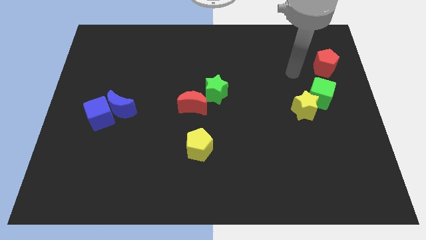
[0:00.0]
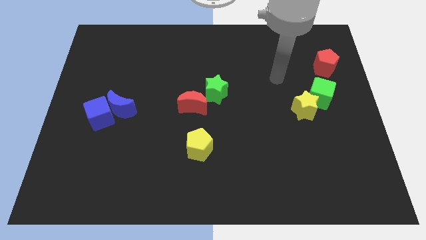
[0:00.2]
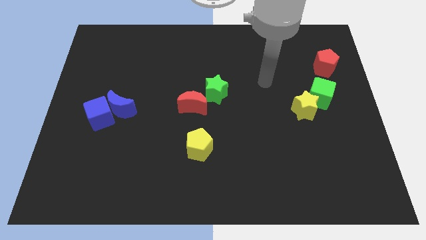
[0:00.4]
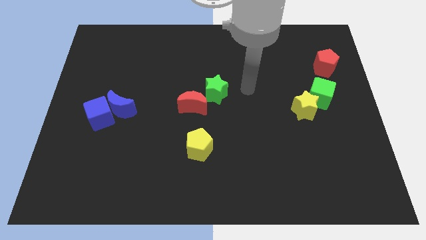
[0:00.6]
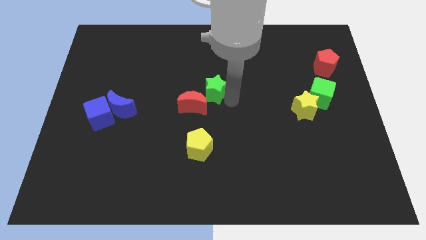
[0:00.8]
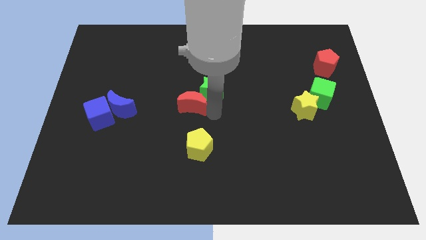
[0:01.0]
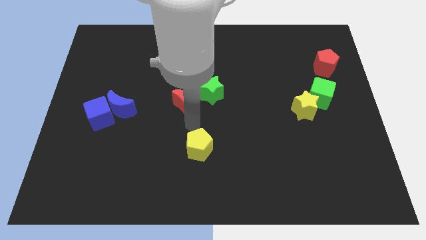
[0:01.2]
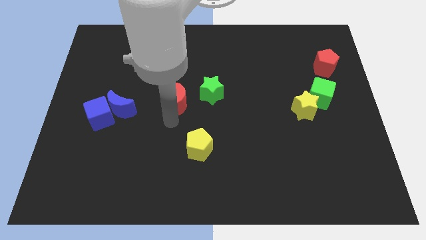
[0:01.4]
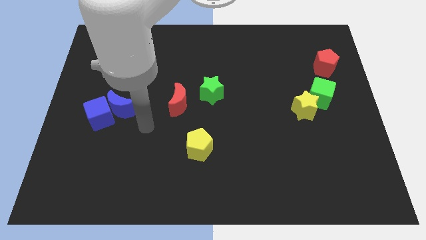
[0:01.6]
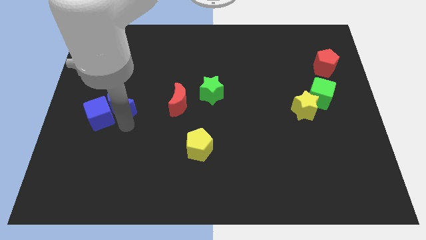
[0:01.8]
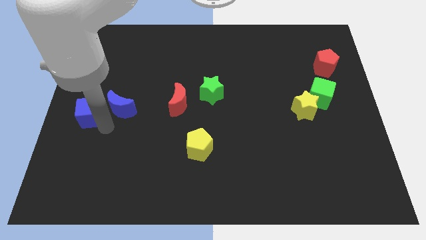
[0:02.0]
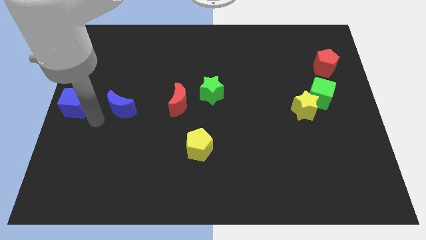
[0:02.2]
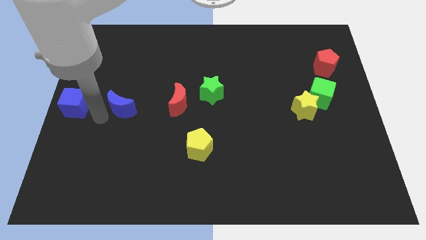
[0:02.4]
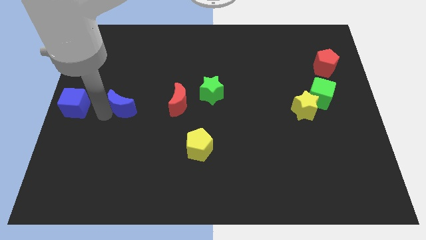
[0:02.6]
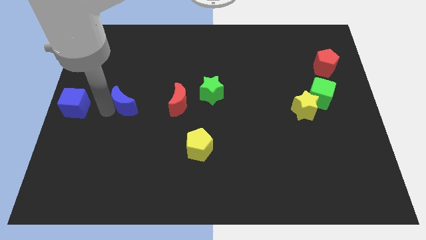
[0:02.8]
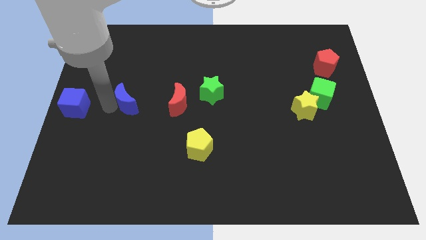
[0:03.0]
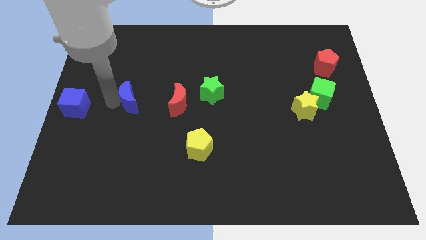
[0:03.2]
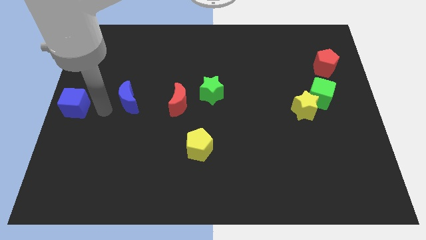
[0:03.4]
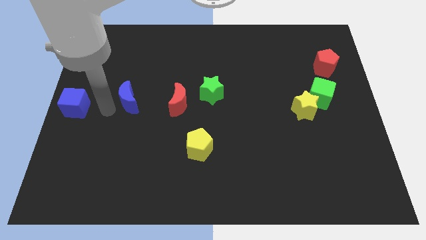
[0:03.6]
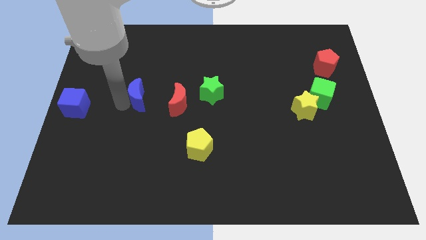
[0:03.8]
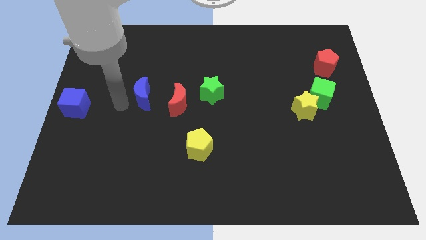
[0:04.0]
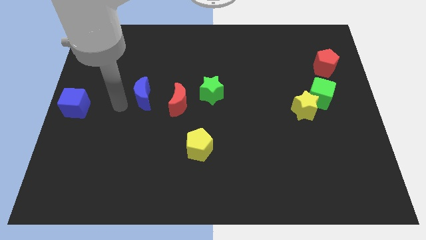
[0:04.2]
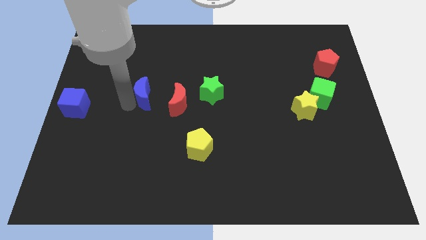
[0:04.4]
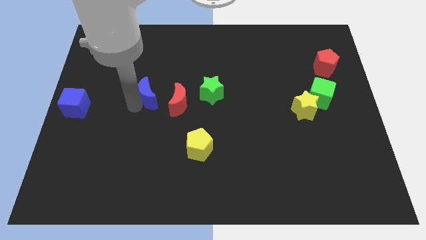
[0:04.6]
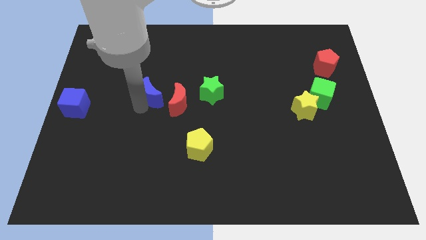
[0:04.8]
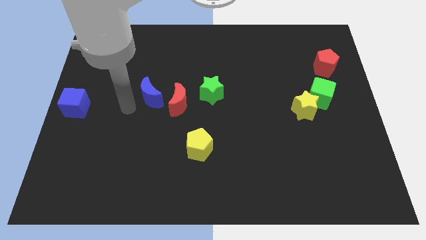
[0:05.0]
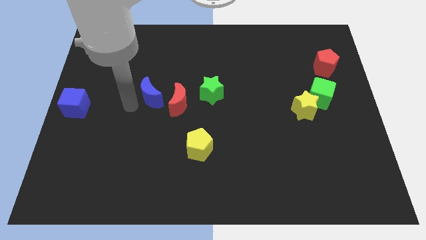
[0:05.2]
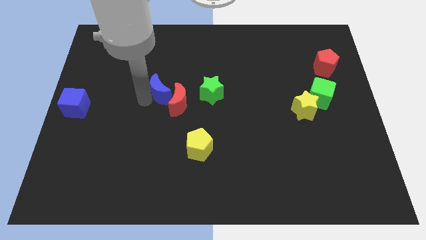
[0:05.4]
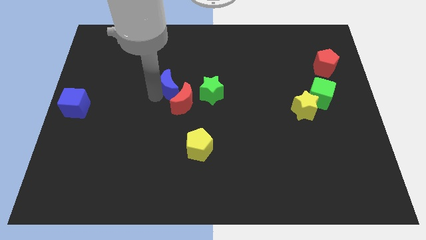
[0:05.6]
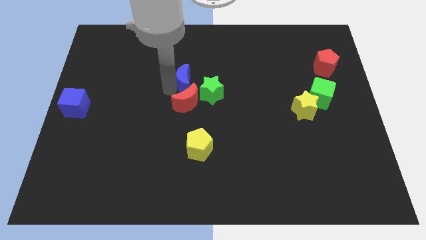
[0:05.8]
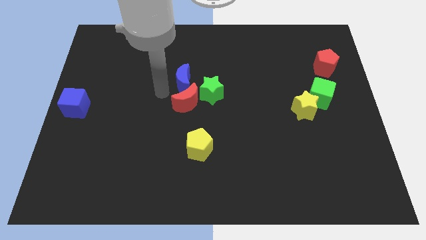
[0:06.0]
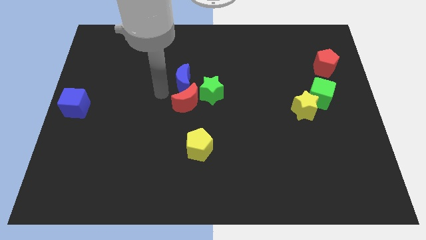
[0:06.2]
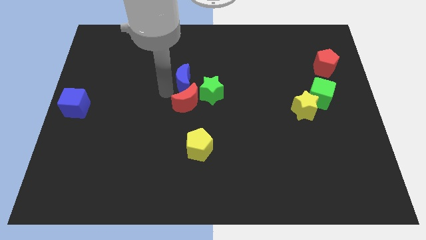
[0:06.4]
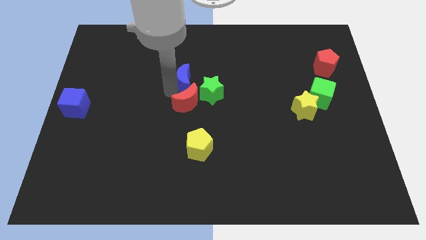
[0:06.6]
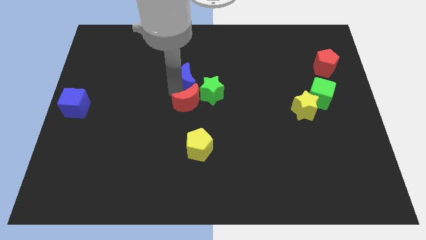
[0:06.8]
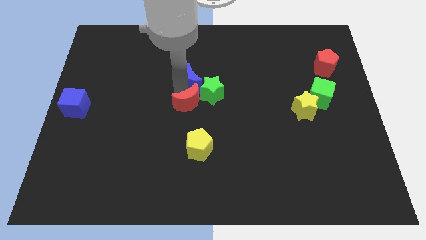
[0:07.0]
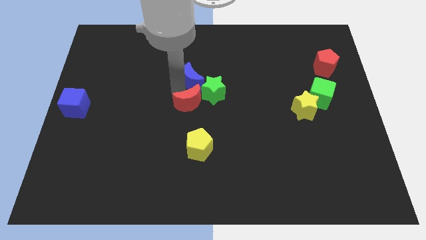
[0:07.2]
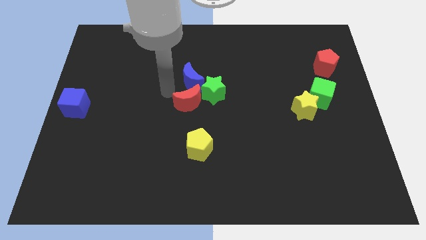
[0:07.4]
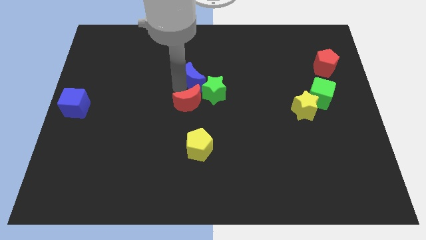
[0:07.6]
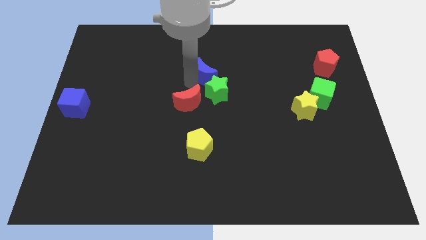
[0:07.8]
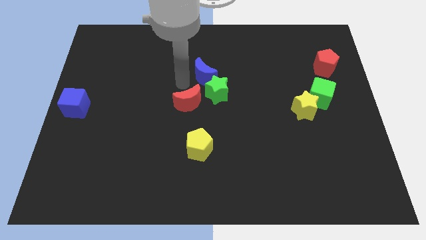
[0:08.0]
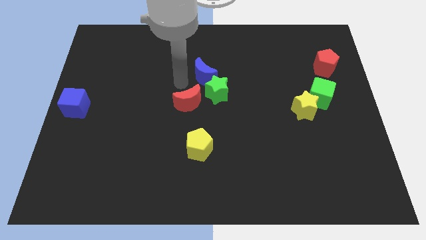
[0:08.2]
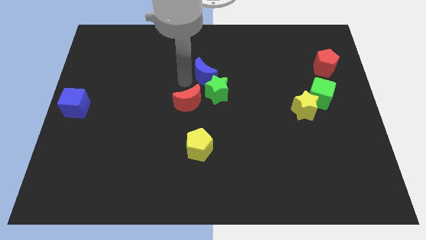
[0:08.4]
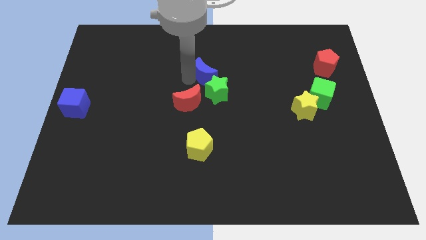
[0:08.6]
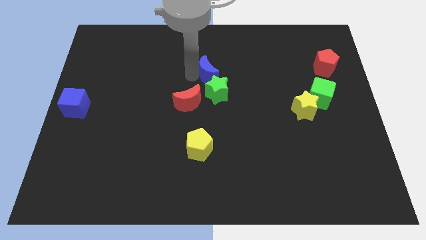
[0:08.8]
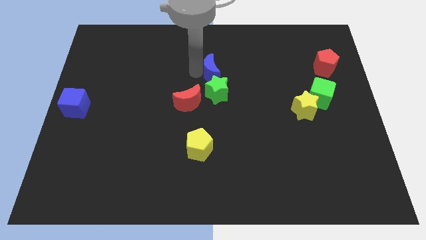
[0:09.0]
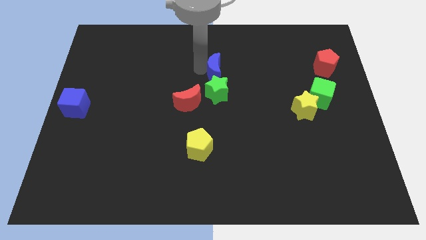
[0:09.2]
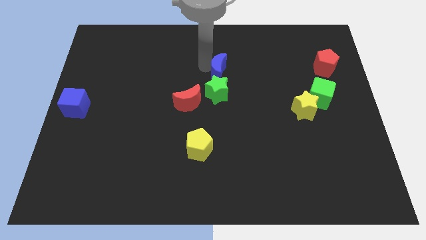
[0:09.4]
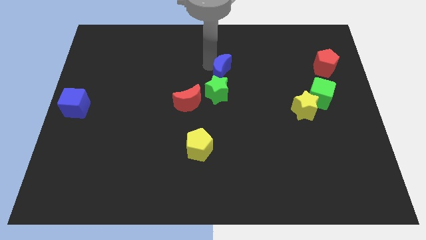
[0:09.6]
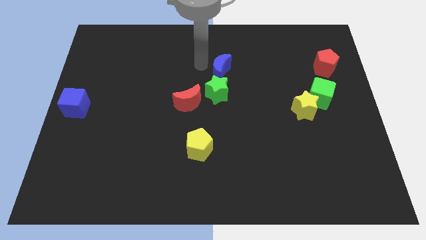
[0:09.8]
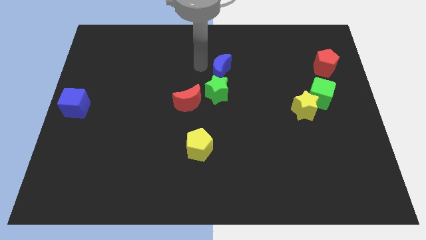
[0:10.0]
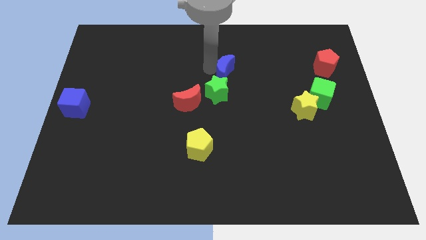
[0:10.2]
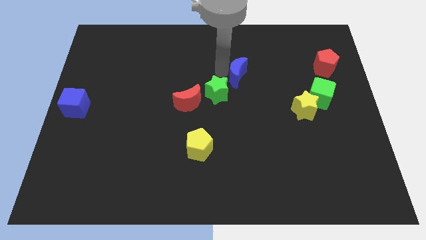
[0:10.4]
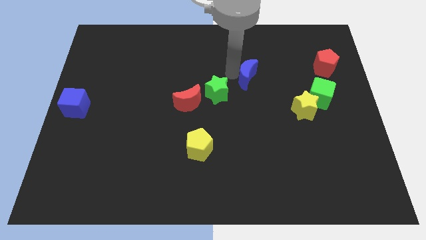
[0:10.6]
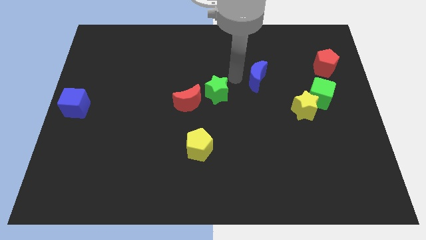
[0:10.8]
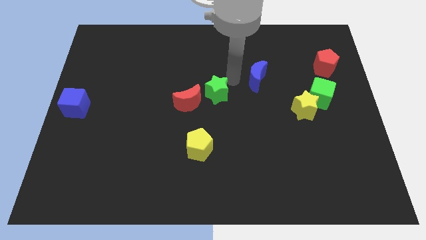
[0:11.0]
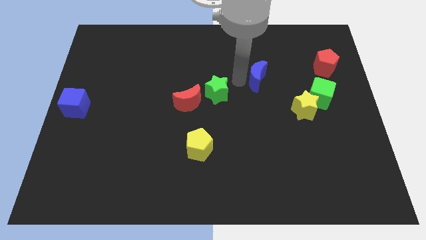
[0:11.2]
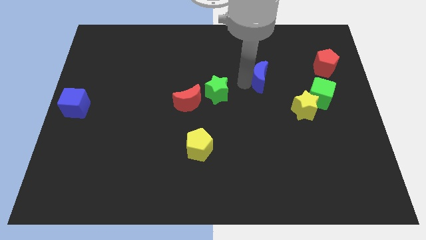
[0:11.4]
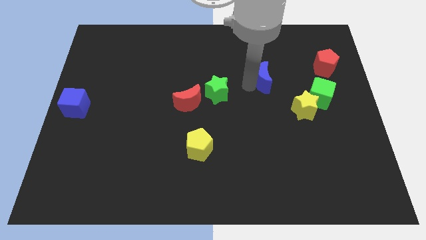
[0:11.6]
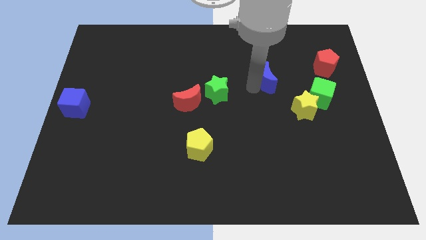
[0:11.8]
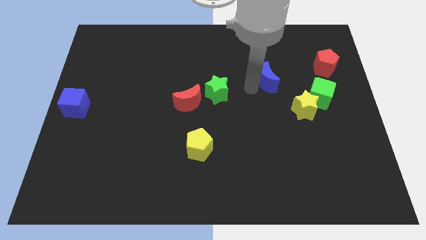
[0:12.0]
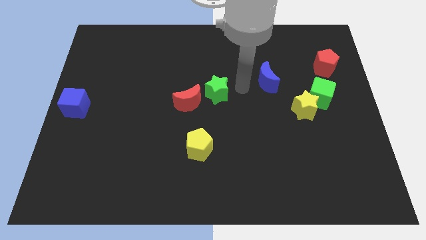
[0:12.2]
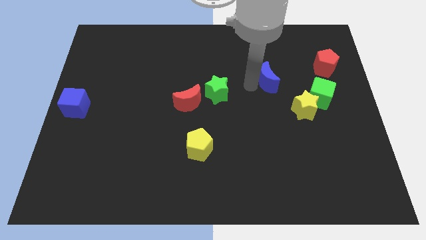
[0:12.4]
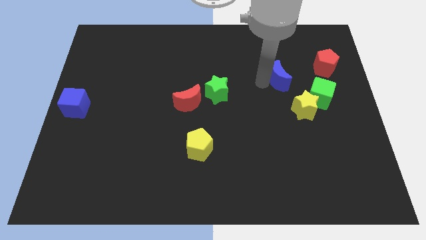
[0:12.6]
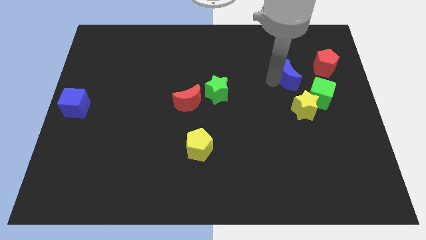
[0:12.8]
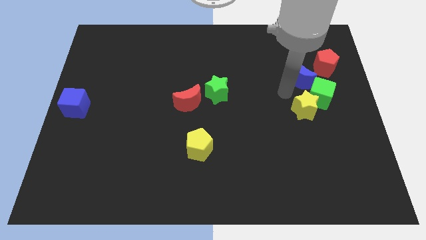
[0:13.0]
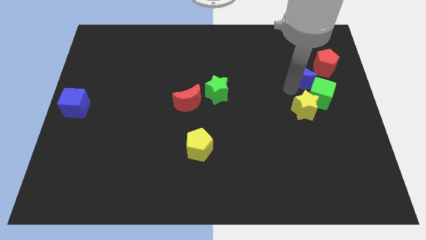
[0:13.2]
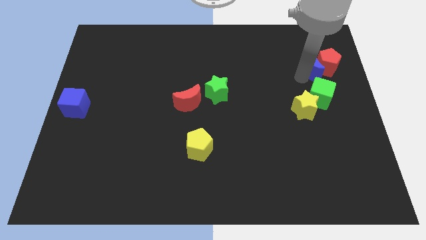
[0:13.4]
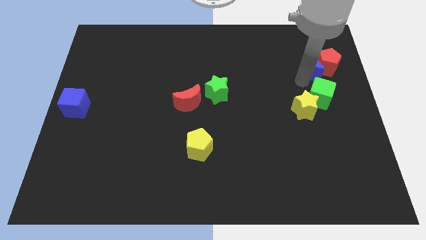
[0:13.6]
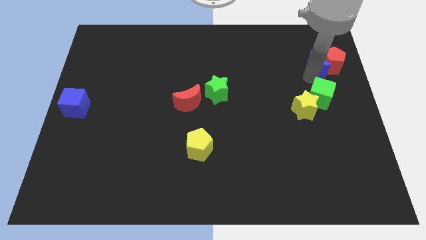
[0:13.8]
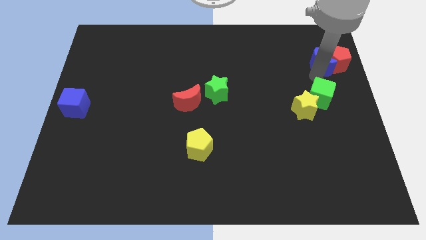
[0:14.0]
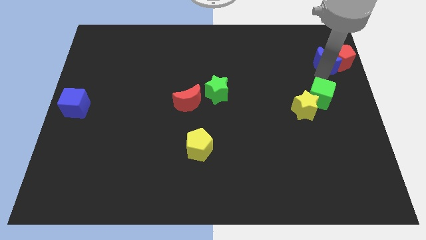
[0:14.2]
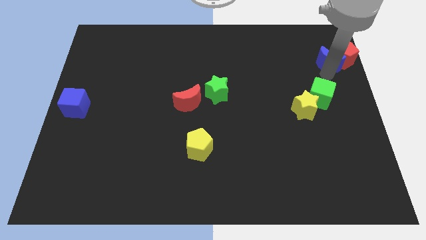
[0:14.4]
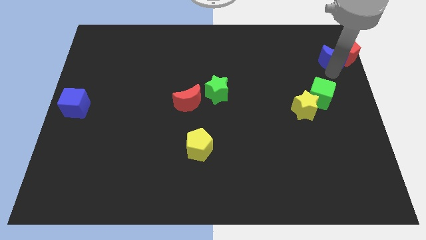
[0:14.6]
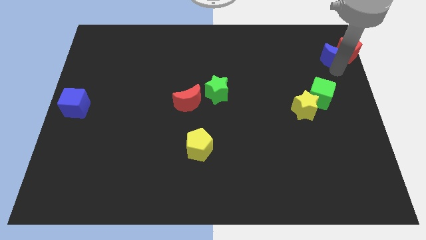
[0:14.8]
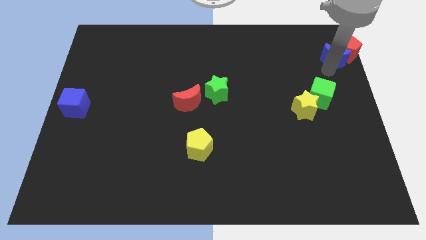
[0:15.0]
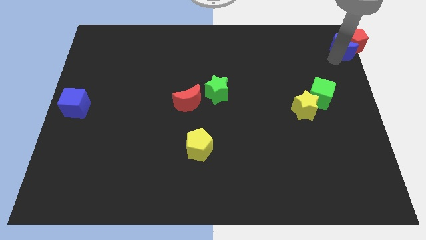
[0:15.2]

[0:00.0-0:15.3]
slide the blue moon to the upper right corner
